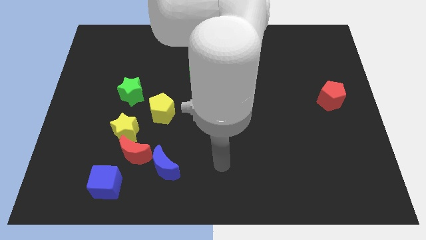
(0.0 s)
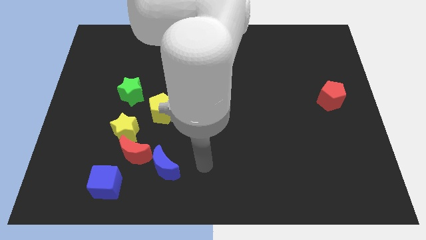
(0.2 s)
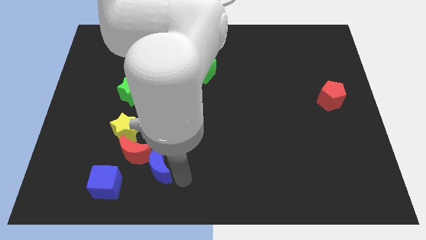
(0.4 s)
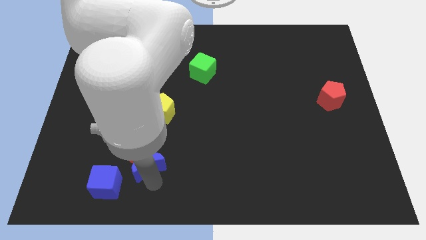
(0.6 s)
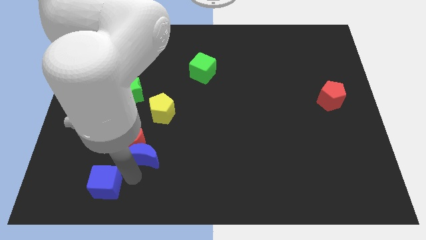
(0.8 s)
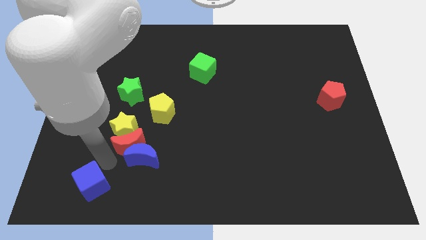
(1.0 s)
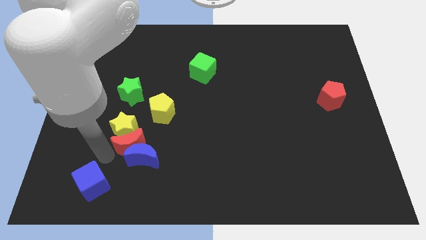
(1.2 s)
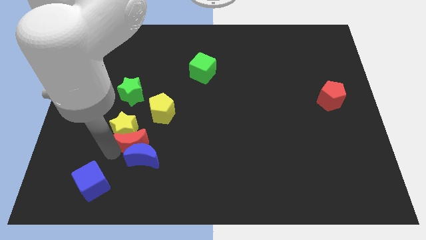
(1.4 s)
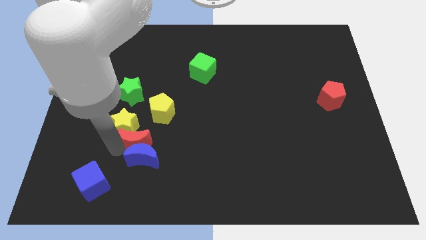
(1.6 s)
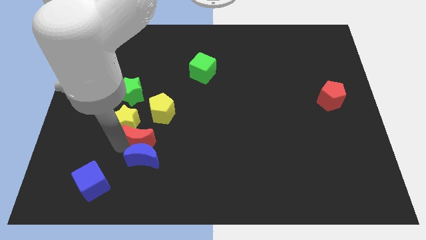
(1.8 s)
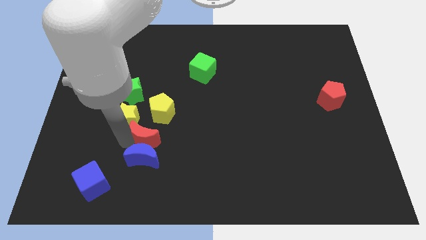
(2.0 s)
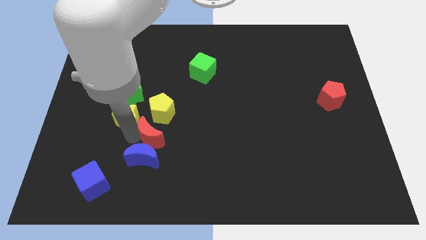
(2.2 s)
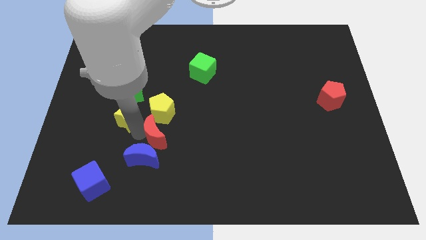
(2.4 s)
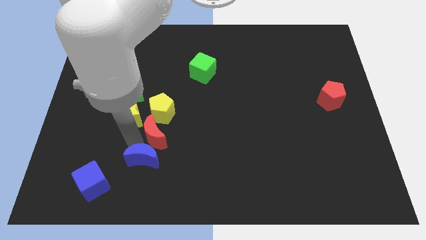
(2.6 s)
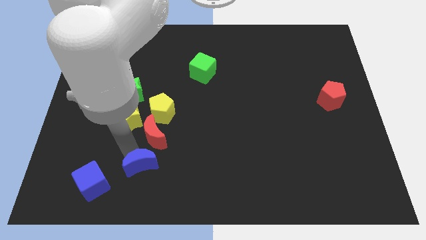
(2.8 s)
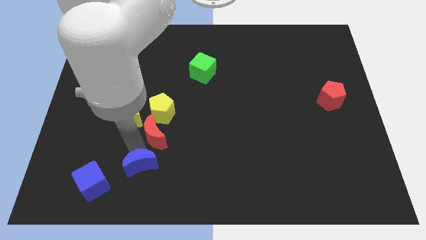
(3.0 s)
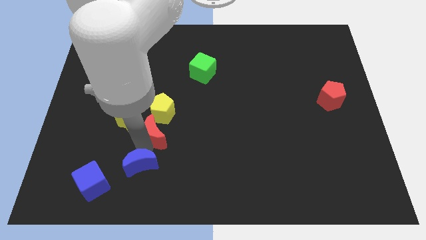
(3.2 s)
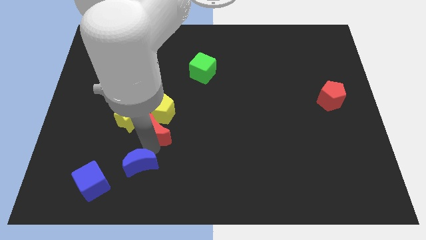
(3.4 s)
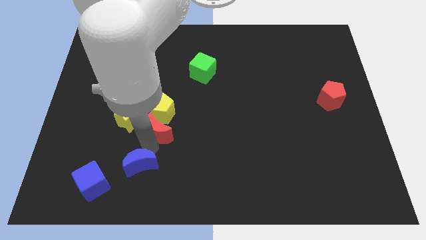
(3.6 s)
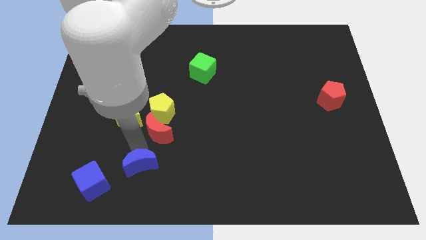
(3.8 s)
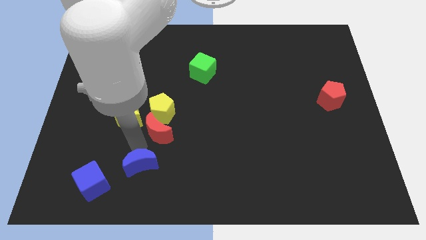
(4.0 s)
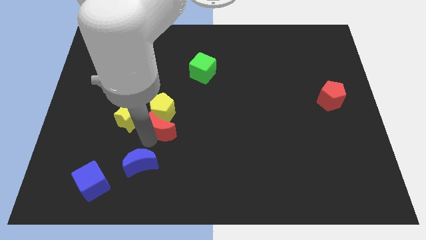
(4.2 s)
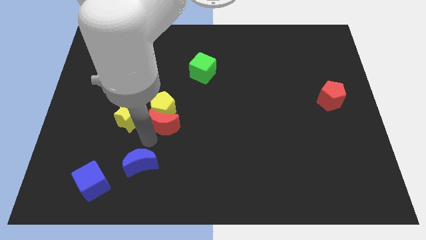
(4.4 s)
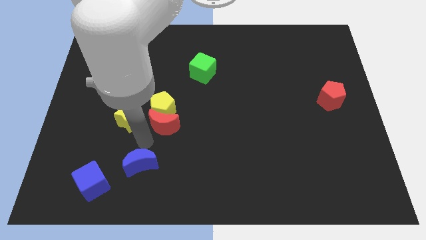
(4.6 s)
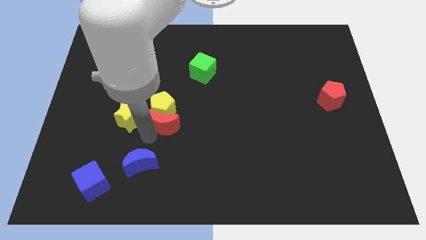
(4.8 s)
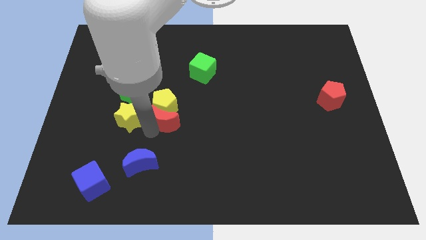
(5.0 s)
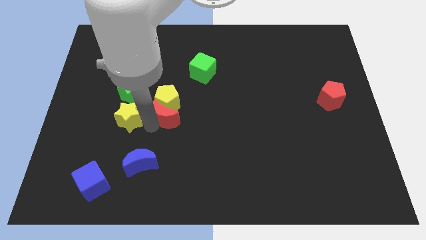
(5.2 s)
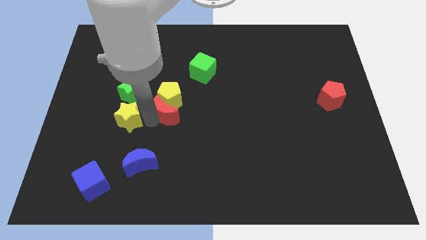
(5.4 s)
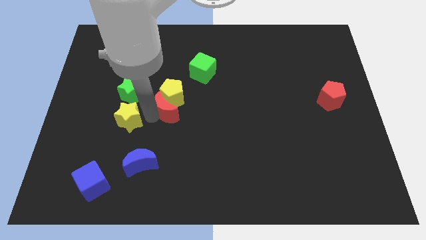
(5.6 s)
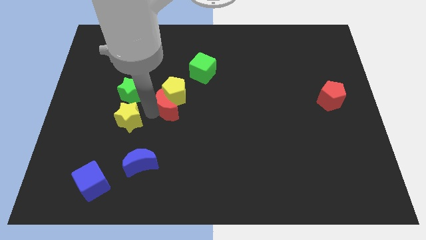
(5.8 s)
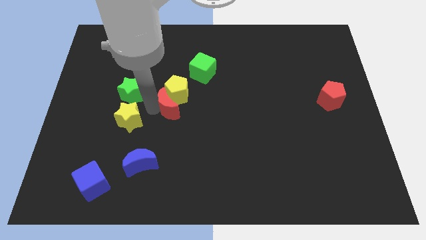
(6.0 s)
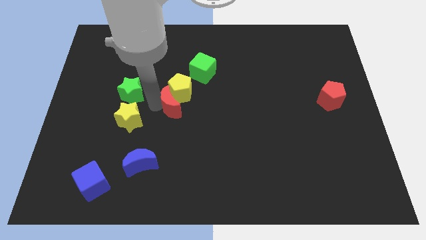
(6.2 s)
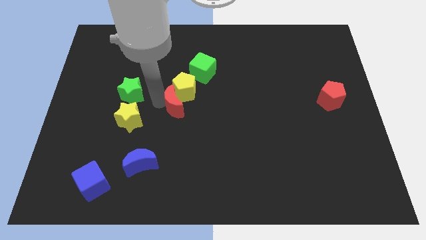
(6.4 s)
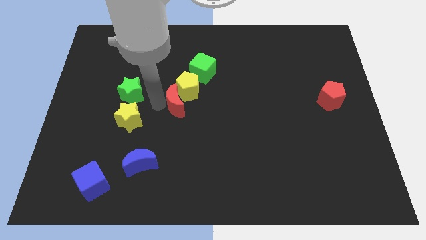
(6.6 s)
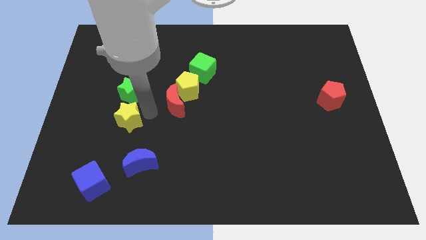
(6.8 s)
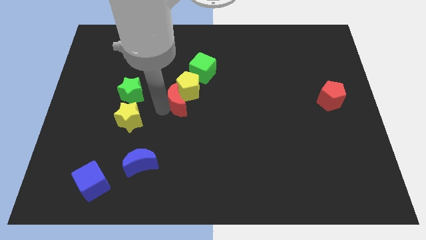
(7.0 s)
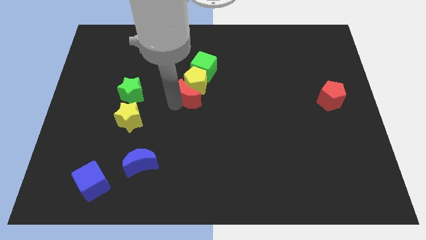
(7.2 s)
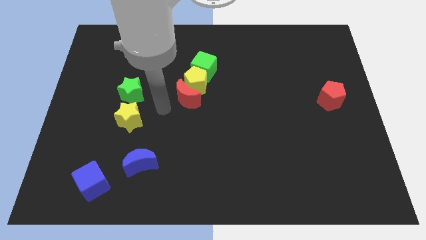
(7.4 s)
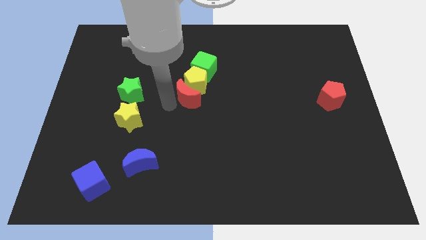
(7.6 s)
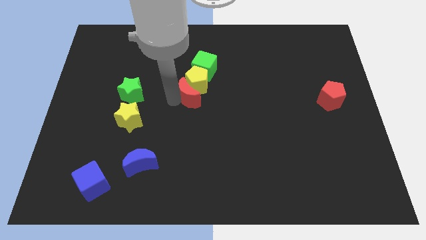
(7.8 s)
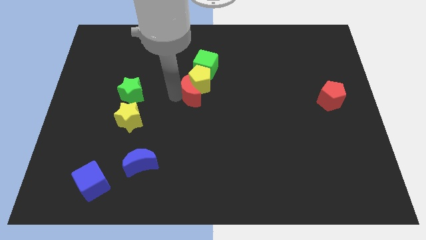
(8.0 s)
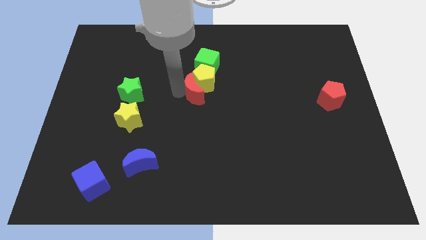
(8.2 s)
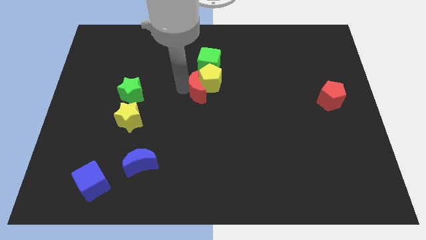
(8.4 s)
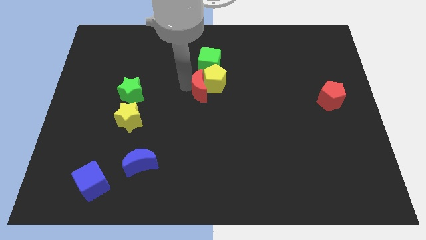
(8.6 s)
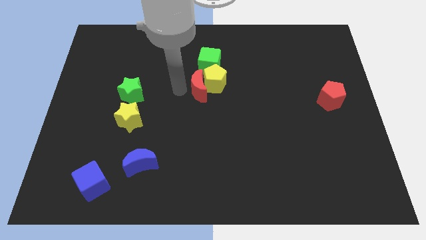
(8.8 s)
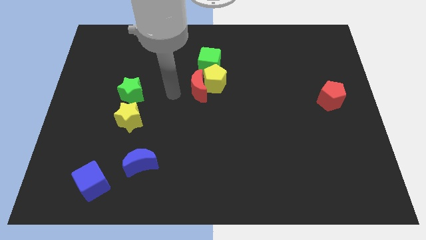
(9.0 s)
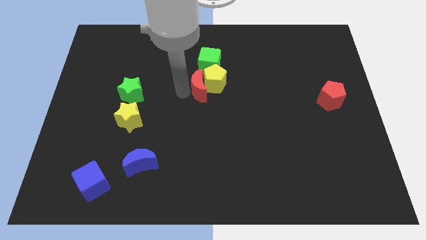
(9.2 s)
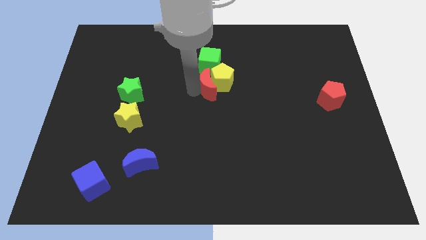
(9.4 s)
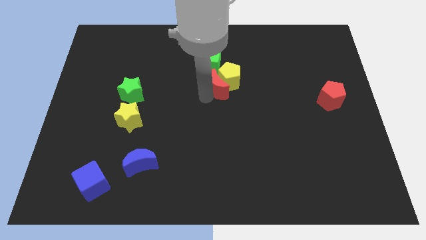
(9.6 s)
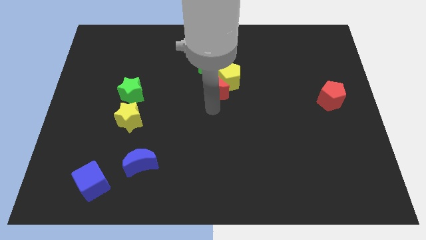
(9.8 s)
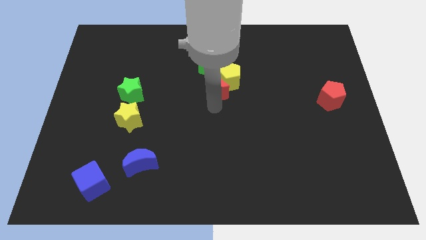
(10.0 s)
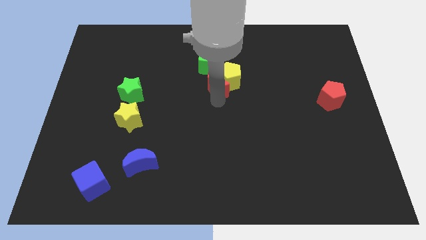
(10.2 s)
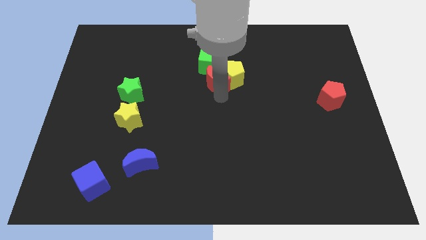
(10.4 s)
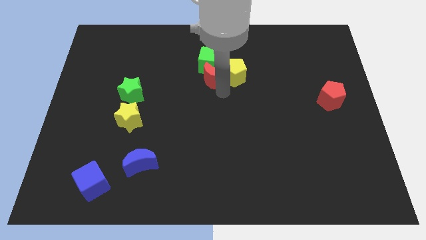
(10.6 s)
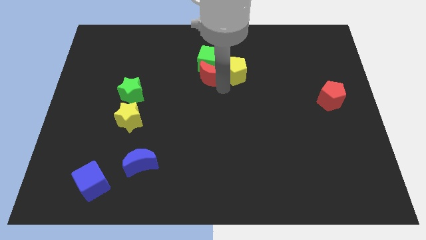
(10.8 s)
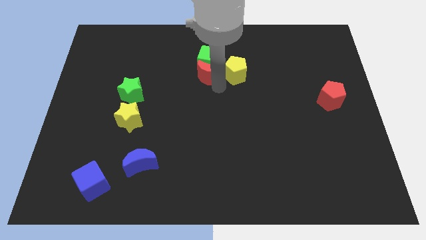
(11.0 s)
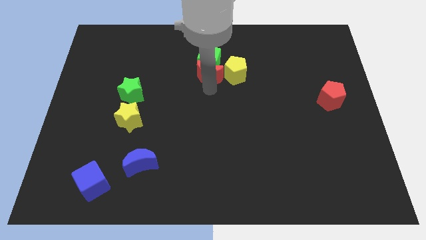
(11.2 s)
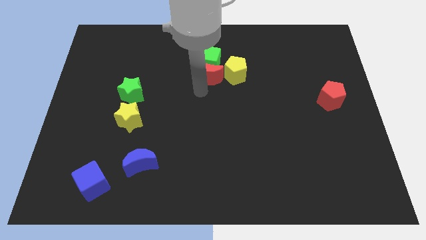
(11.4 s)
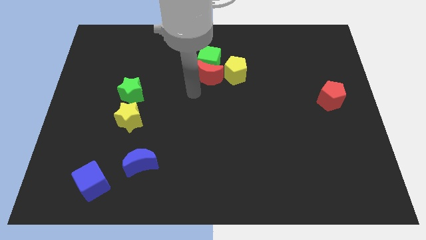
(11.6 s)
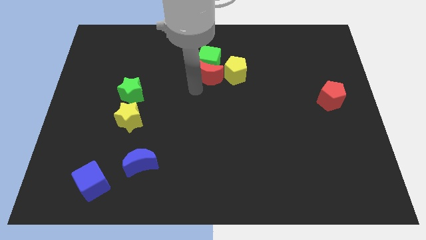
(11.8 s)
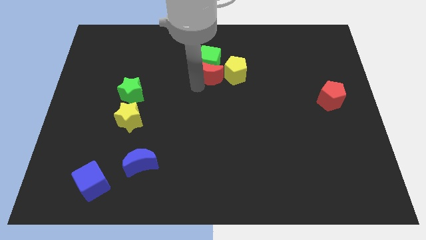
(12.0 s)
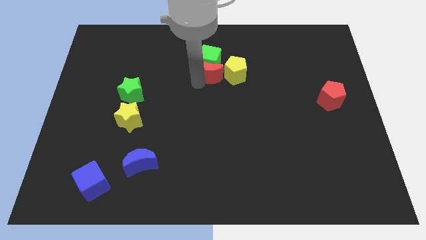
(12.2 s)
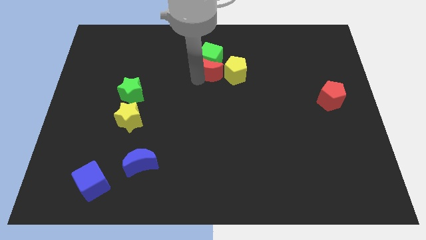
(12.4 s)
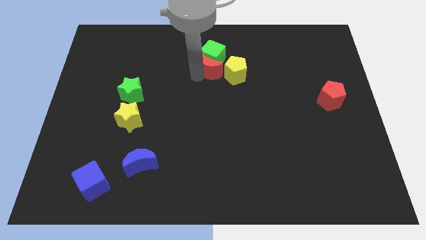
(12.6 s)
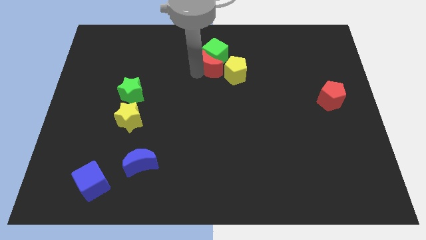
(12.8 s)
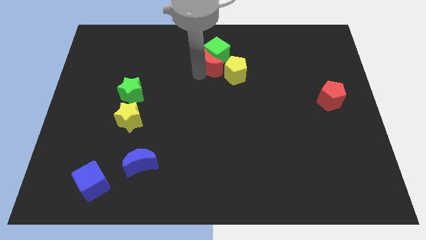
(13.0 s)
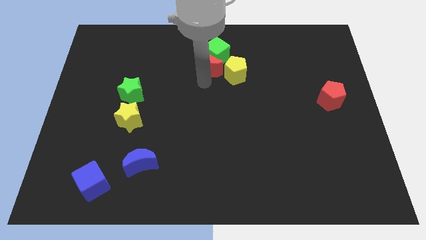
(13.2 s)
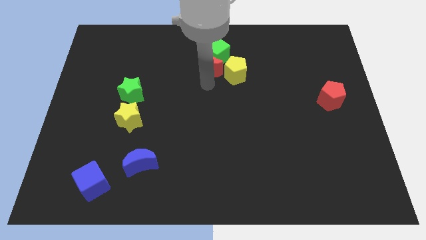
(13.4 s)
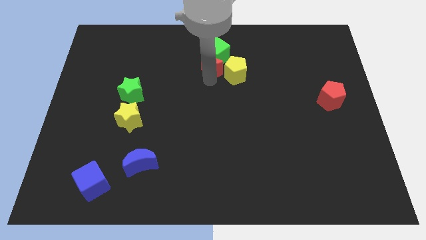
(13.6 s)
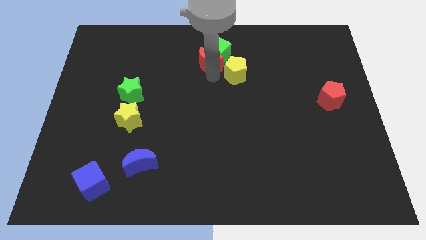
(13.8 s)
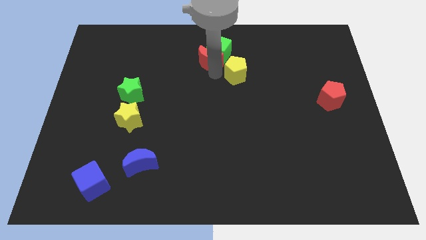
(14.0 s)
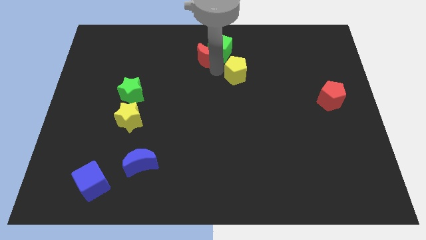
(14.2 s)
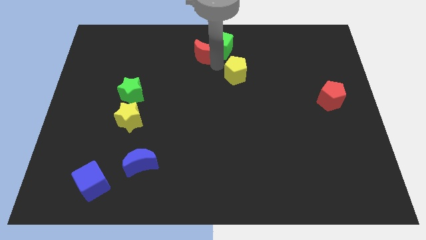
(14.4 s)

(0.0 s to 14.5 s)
put the red moon to the towards your base
